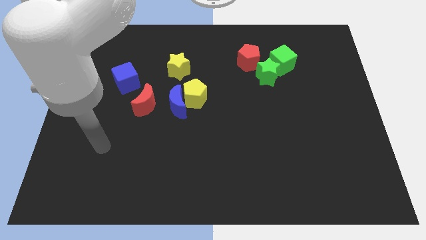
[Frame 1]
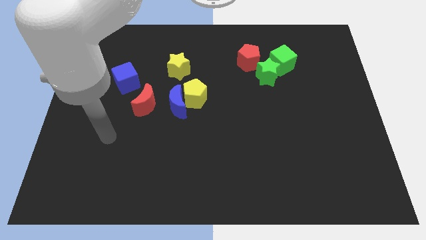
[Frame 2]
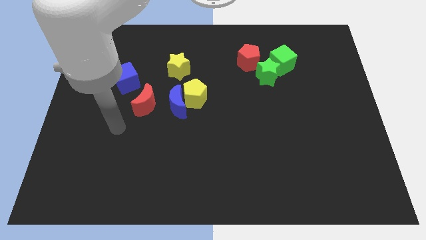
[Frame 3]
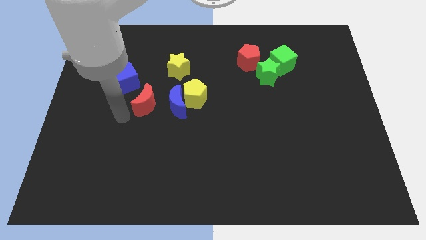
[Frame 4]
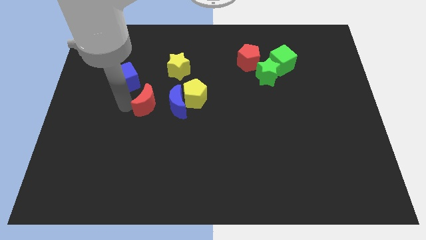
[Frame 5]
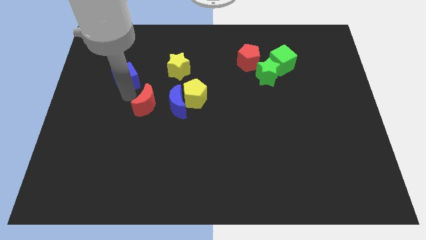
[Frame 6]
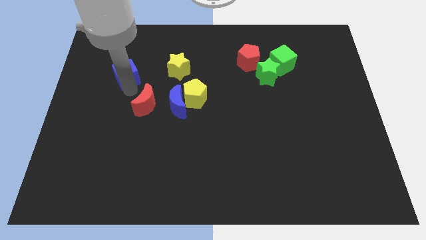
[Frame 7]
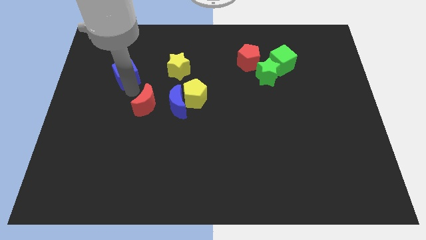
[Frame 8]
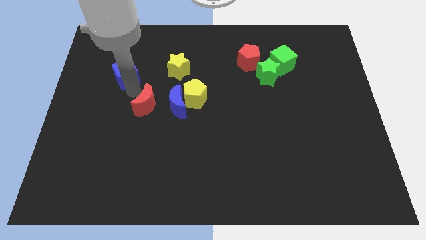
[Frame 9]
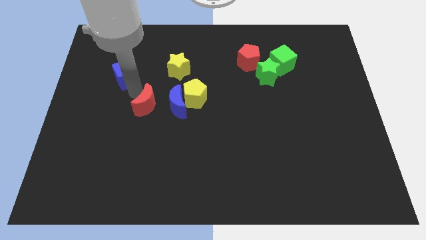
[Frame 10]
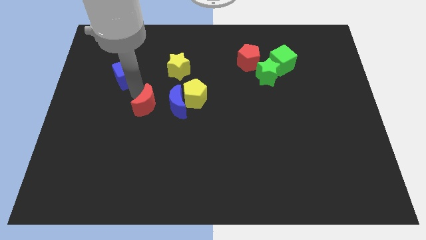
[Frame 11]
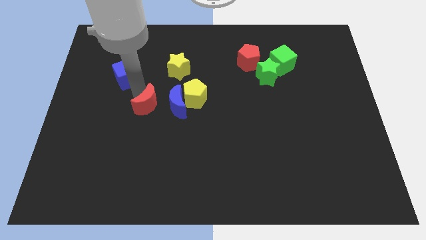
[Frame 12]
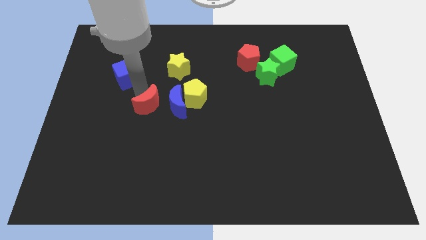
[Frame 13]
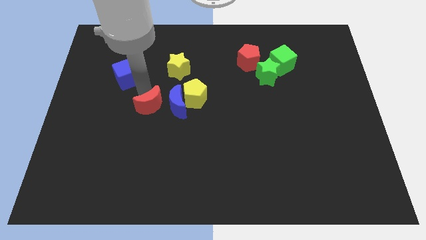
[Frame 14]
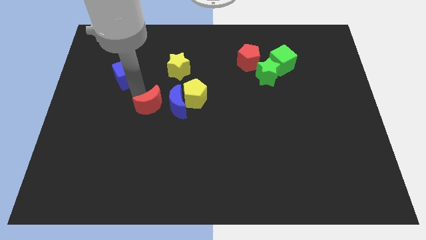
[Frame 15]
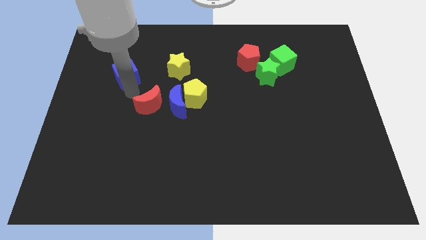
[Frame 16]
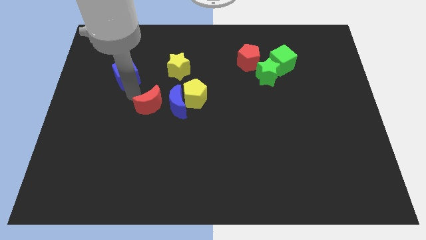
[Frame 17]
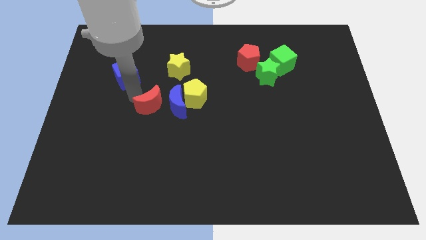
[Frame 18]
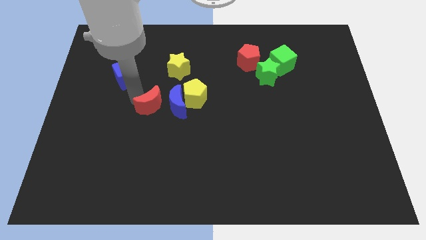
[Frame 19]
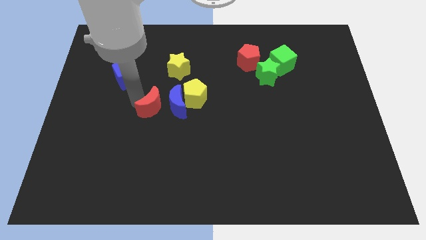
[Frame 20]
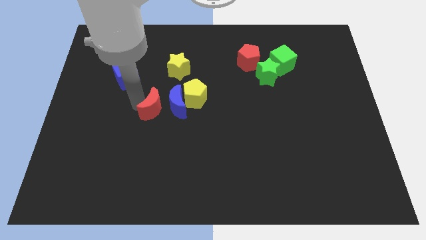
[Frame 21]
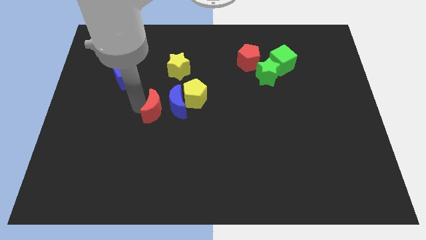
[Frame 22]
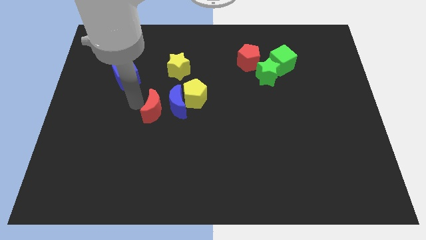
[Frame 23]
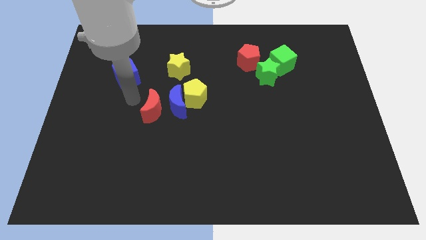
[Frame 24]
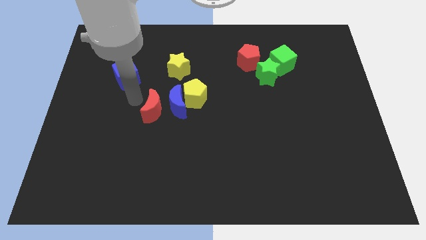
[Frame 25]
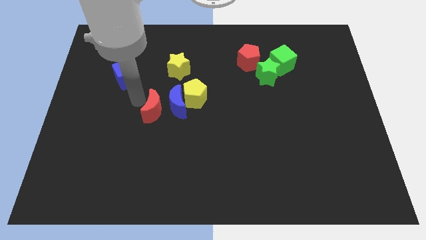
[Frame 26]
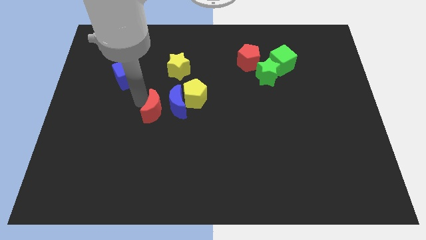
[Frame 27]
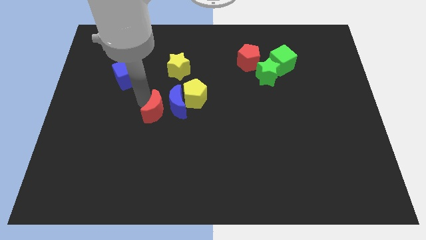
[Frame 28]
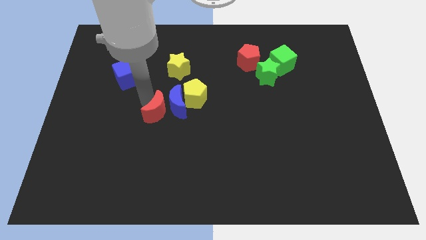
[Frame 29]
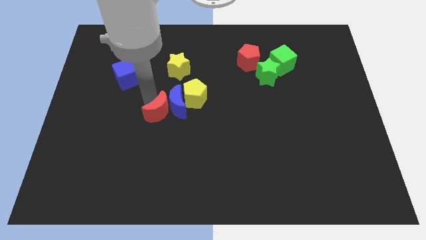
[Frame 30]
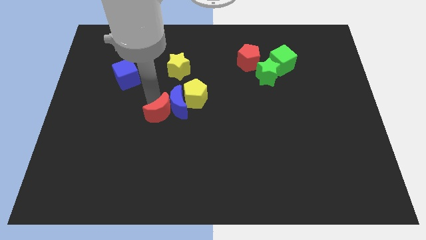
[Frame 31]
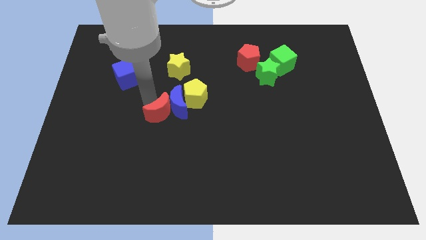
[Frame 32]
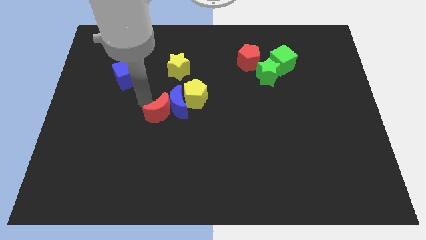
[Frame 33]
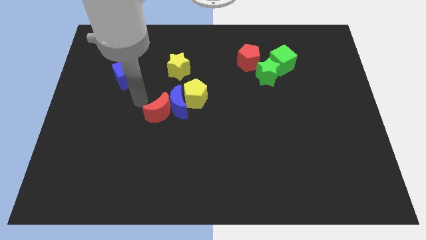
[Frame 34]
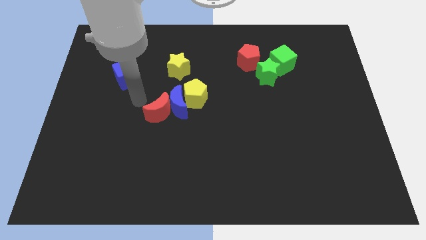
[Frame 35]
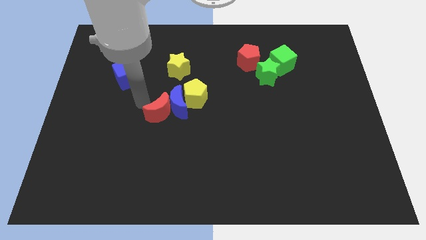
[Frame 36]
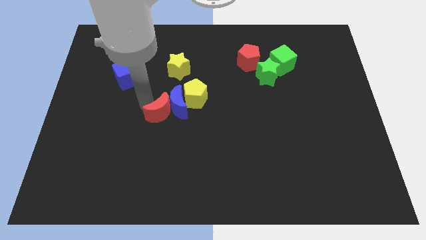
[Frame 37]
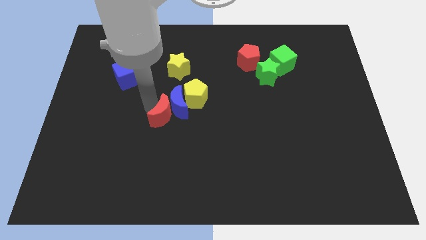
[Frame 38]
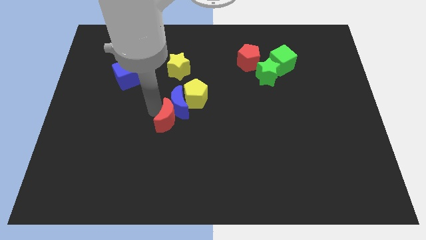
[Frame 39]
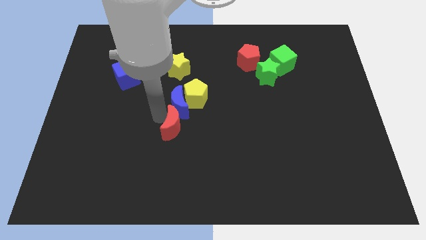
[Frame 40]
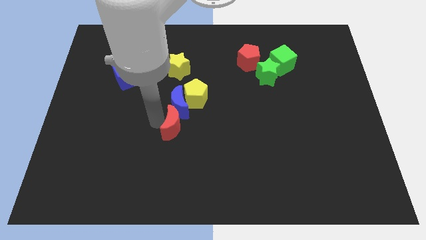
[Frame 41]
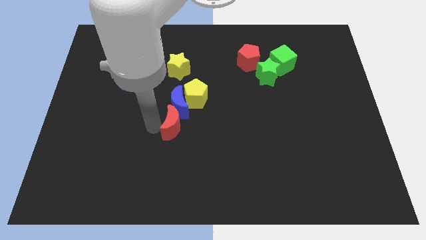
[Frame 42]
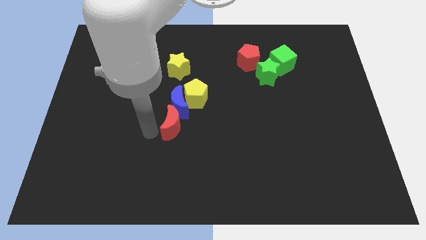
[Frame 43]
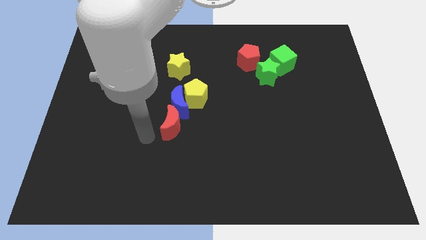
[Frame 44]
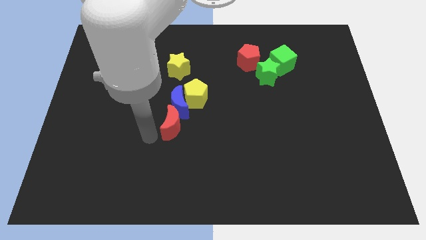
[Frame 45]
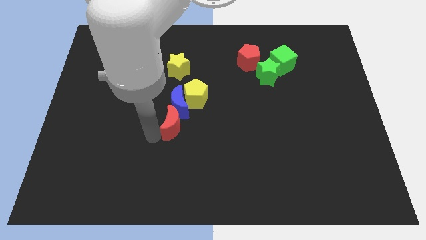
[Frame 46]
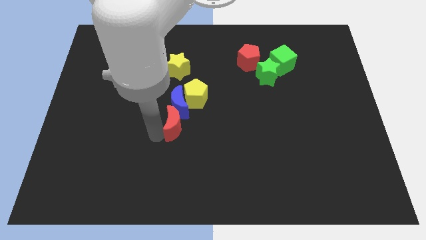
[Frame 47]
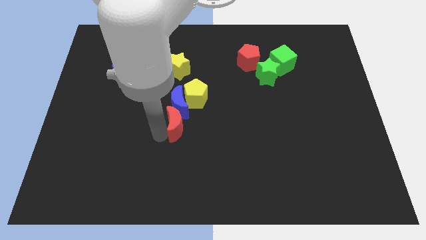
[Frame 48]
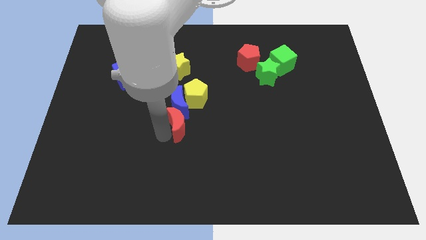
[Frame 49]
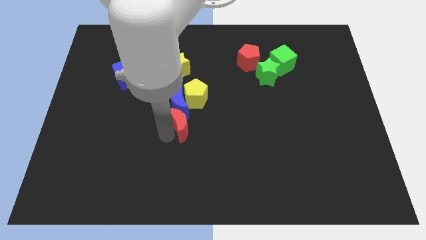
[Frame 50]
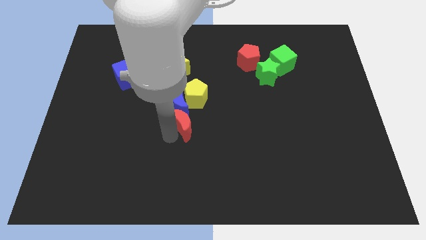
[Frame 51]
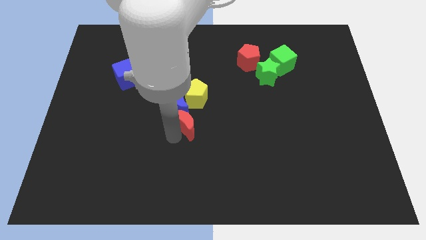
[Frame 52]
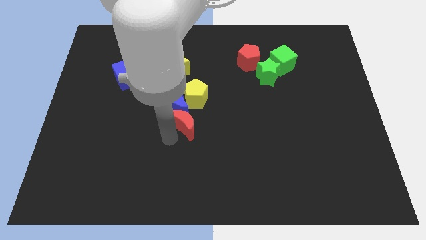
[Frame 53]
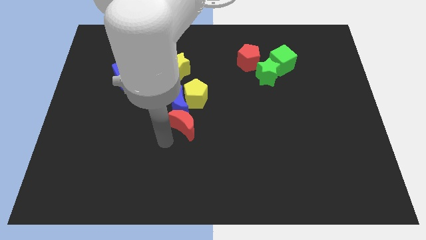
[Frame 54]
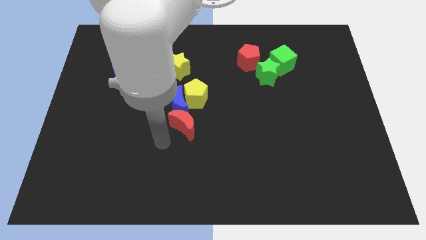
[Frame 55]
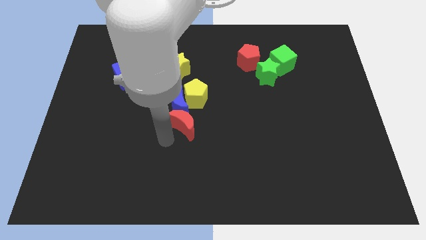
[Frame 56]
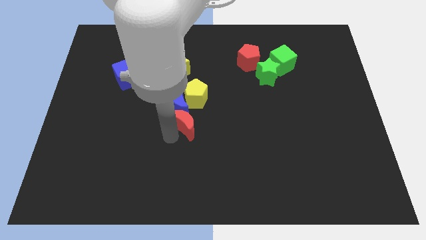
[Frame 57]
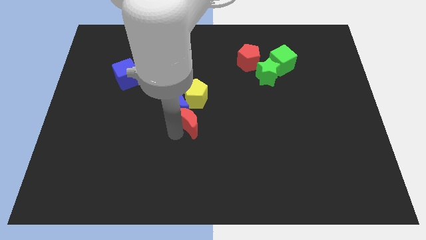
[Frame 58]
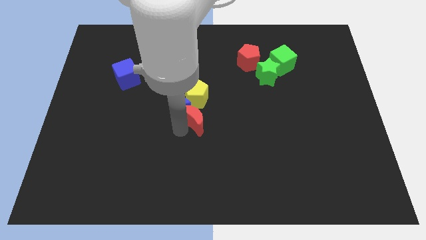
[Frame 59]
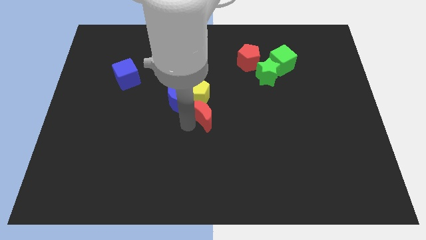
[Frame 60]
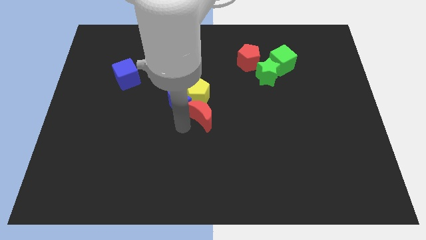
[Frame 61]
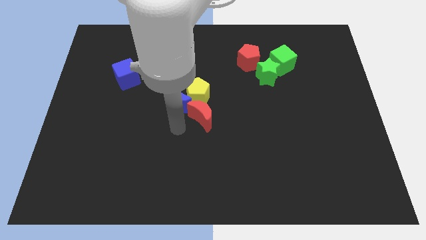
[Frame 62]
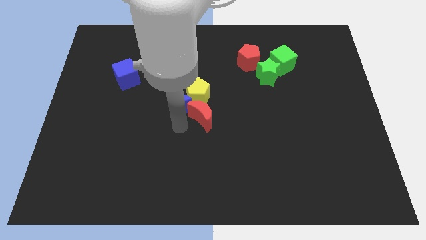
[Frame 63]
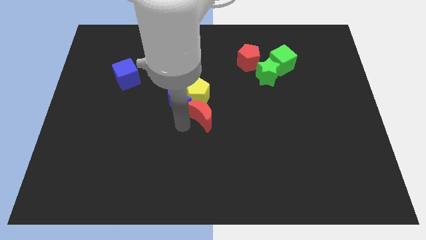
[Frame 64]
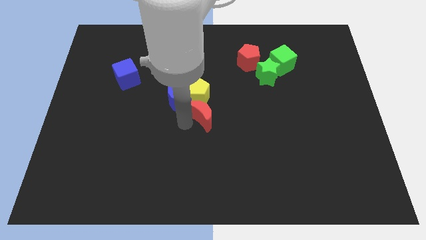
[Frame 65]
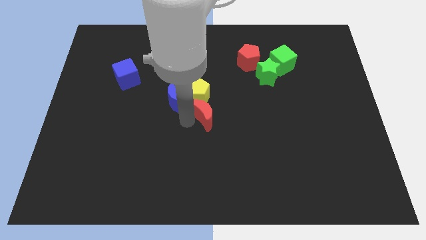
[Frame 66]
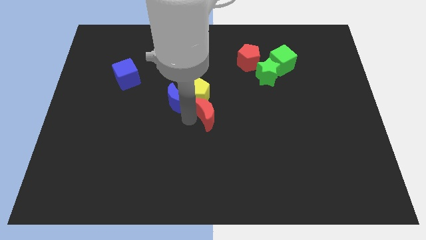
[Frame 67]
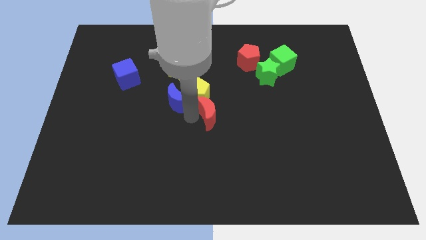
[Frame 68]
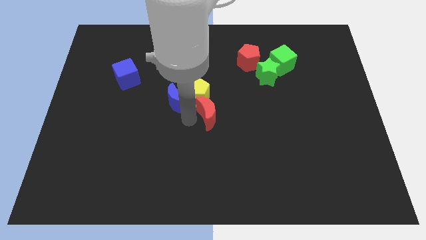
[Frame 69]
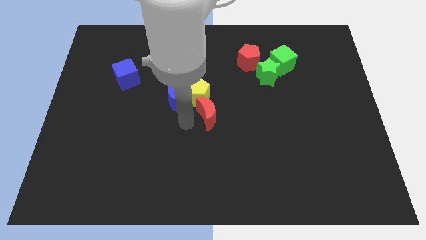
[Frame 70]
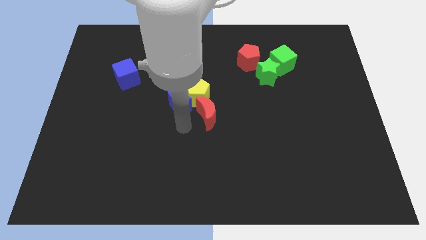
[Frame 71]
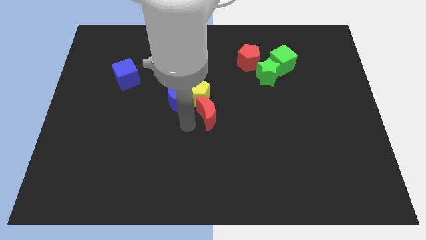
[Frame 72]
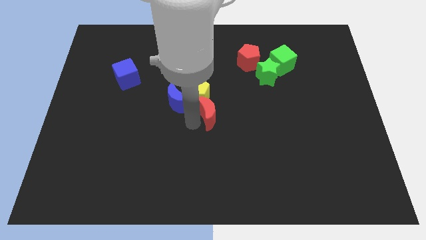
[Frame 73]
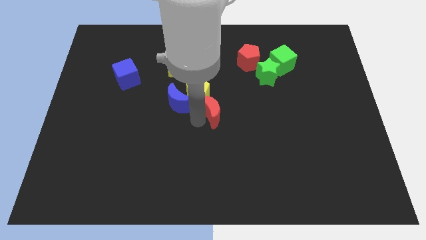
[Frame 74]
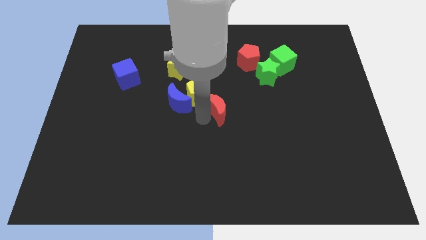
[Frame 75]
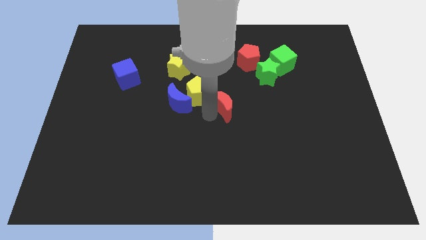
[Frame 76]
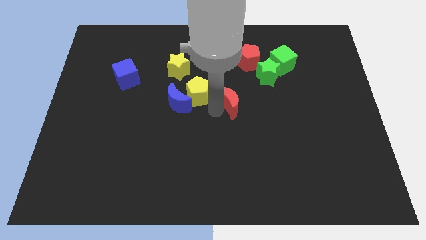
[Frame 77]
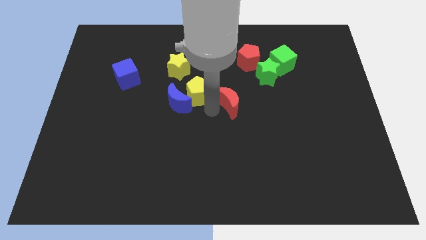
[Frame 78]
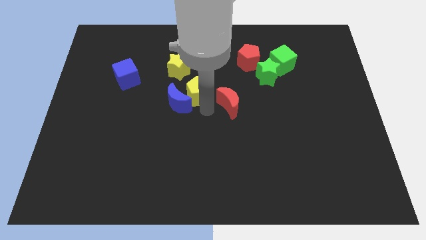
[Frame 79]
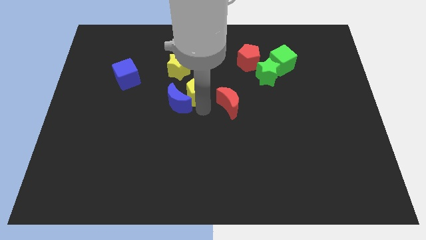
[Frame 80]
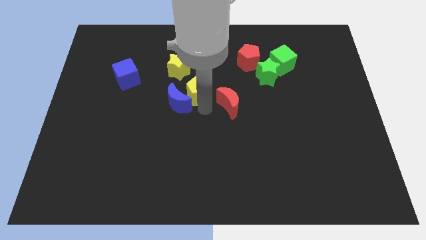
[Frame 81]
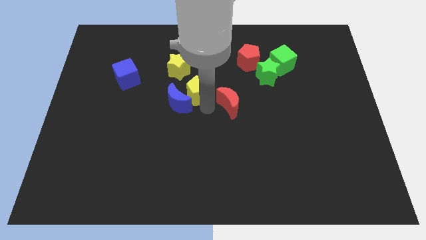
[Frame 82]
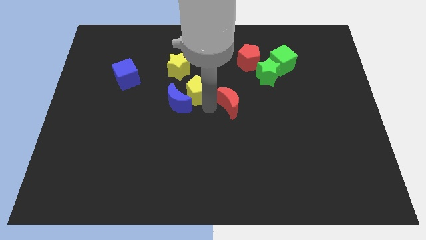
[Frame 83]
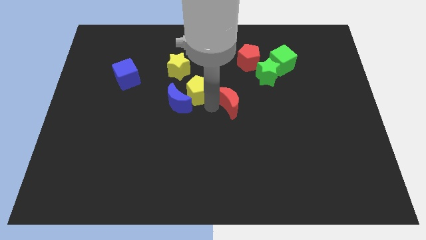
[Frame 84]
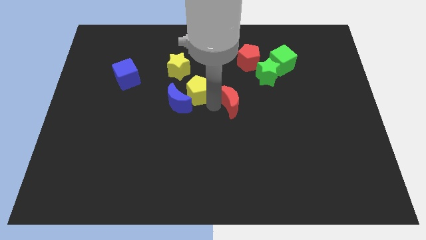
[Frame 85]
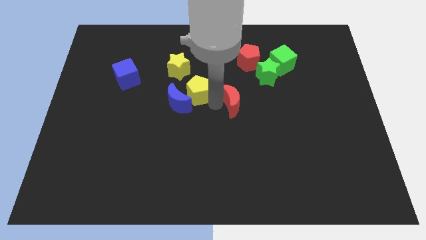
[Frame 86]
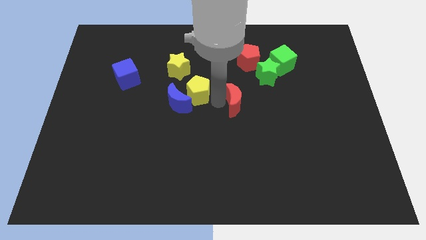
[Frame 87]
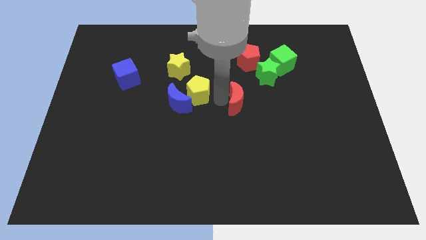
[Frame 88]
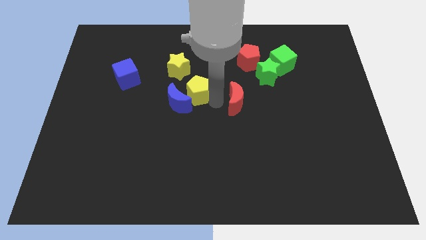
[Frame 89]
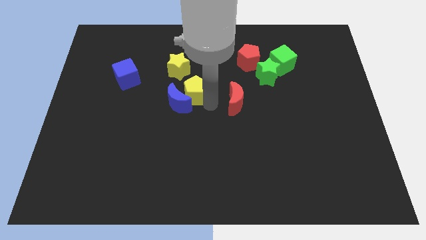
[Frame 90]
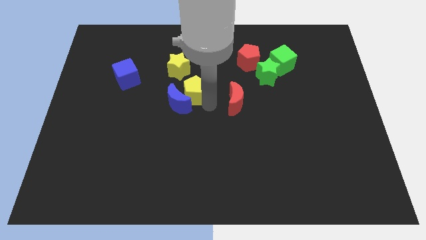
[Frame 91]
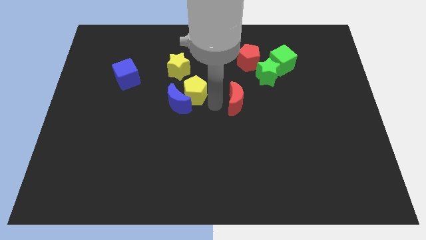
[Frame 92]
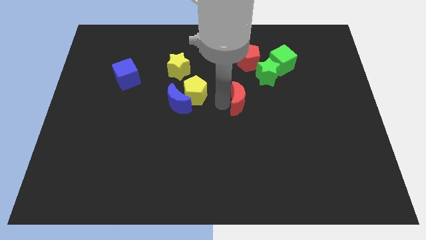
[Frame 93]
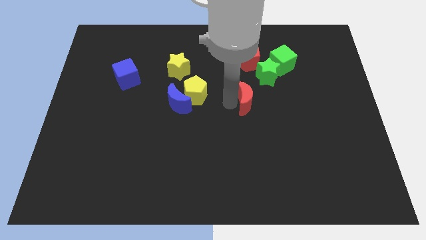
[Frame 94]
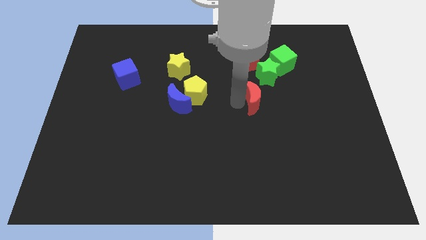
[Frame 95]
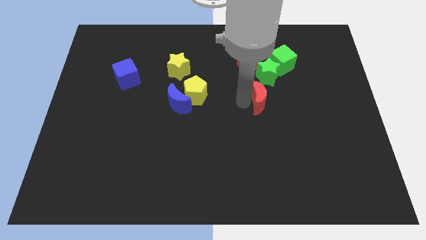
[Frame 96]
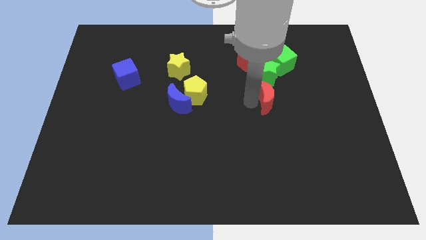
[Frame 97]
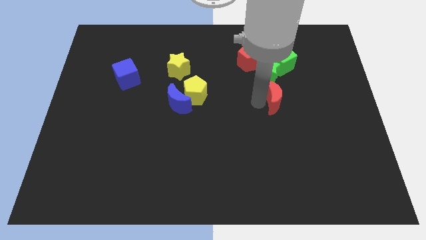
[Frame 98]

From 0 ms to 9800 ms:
put the red moon to the bottom of the green cube
